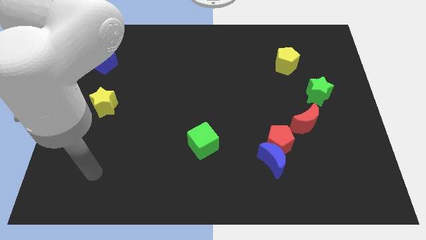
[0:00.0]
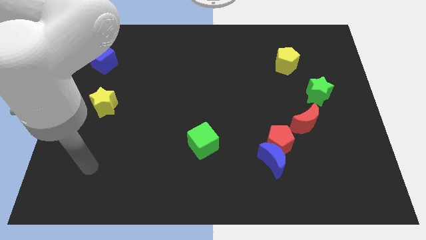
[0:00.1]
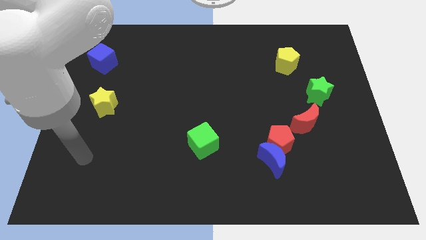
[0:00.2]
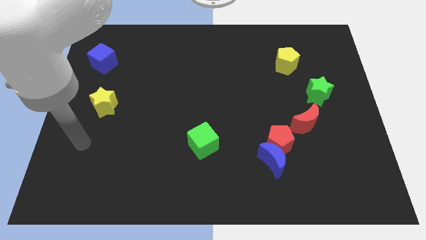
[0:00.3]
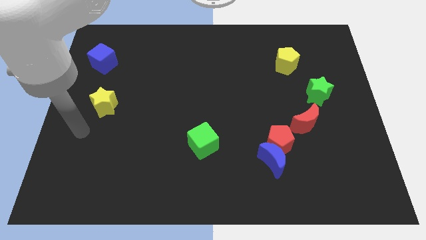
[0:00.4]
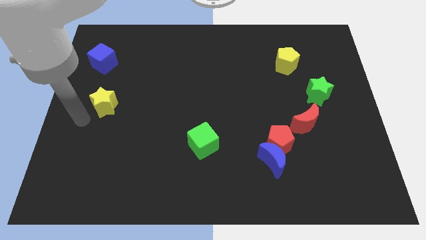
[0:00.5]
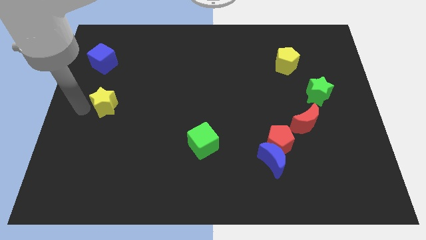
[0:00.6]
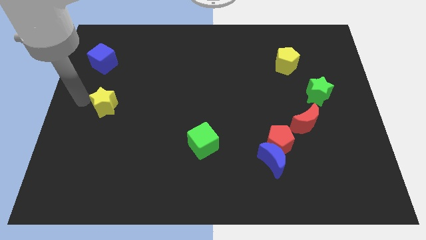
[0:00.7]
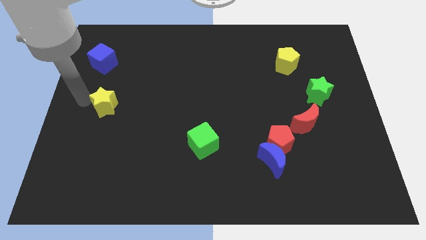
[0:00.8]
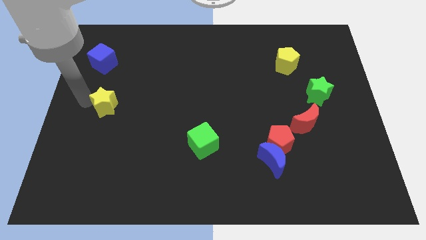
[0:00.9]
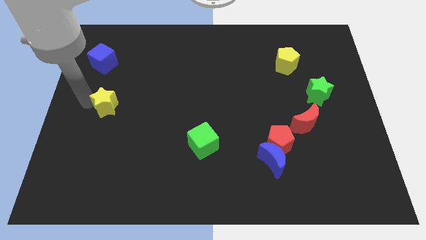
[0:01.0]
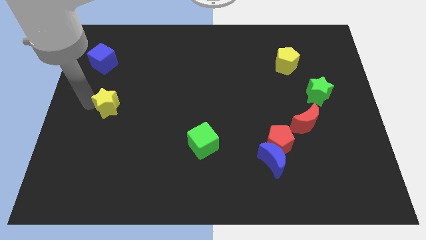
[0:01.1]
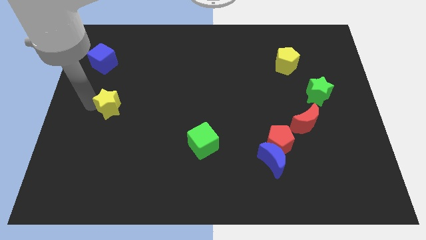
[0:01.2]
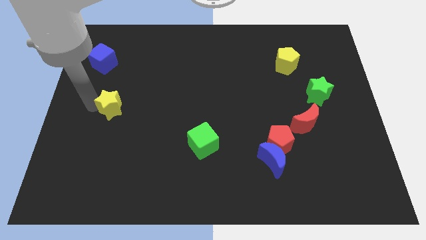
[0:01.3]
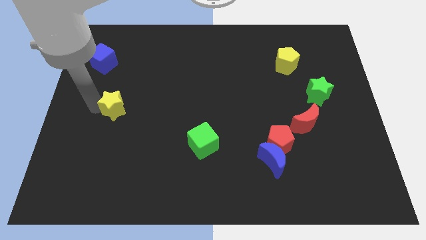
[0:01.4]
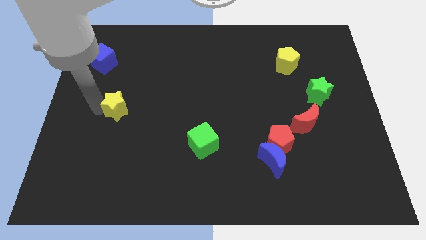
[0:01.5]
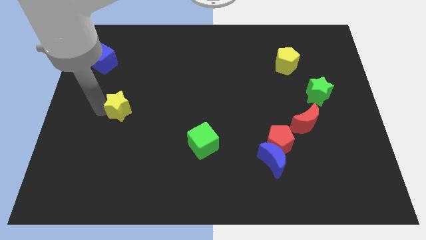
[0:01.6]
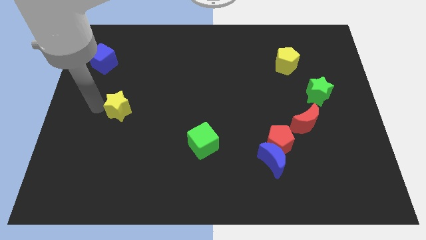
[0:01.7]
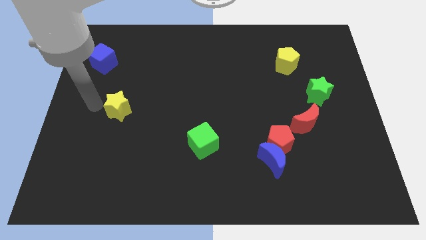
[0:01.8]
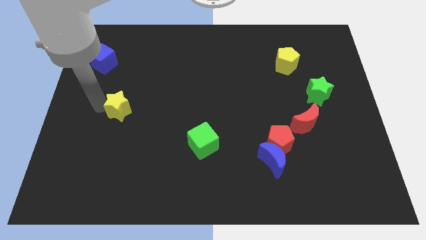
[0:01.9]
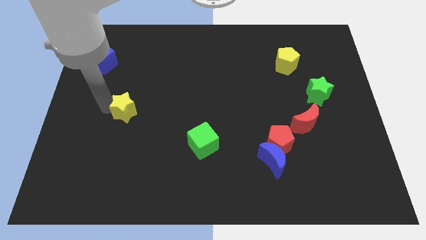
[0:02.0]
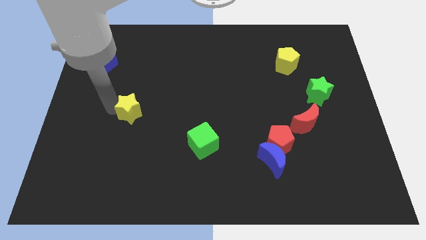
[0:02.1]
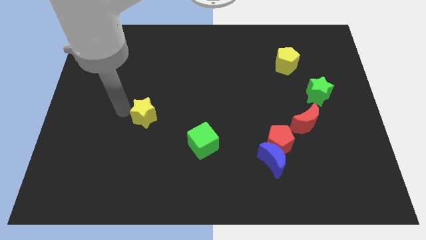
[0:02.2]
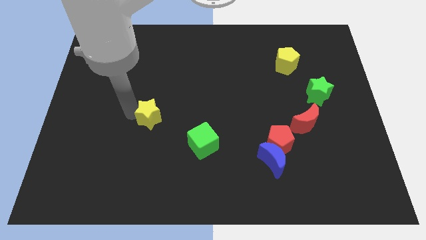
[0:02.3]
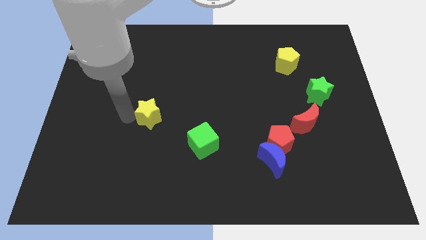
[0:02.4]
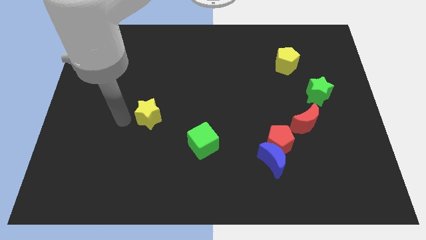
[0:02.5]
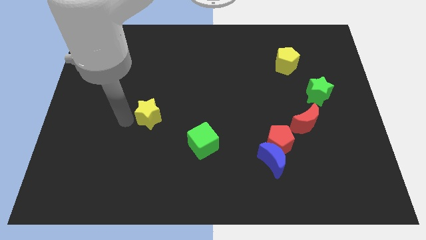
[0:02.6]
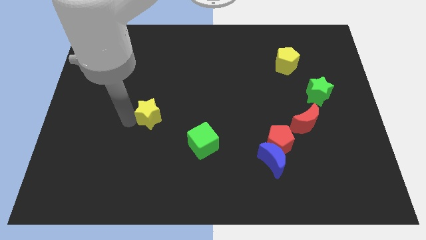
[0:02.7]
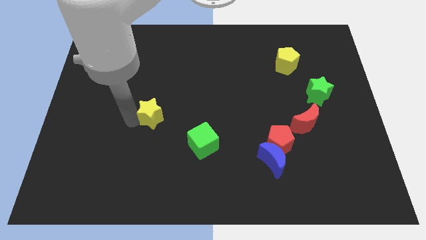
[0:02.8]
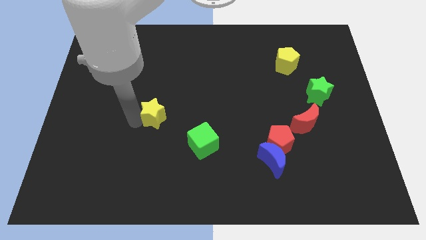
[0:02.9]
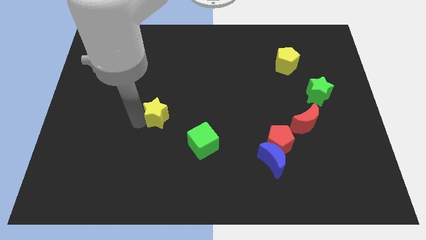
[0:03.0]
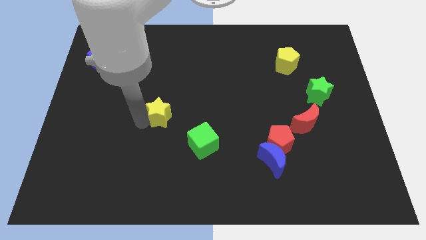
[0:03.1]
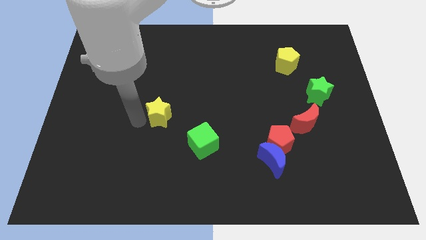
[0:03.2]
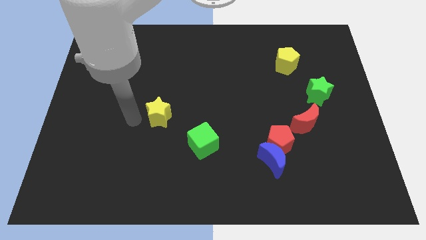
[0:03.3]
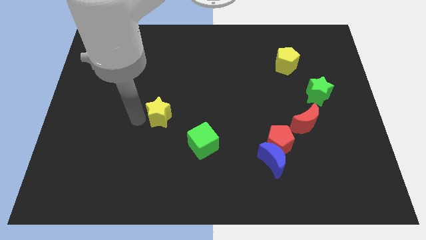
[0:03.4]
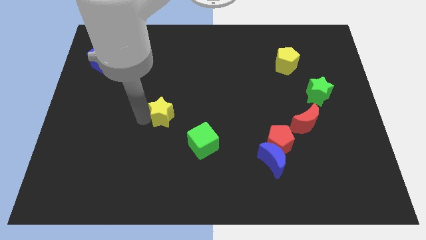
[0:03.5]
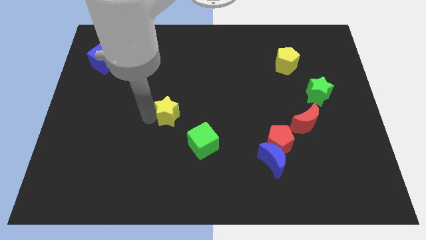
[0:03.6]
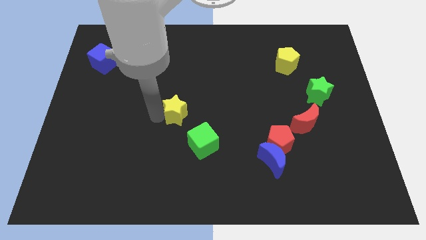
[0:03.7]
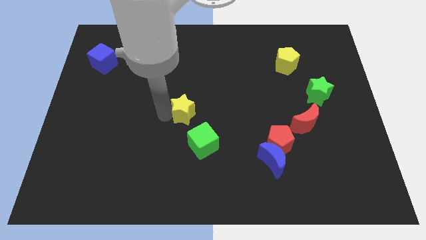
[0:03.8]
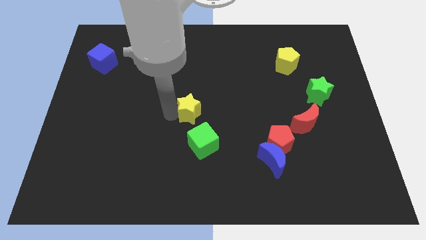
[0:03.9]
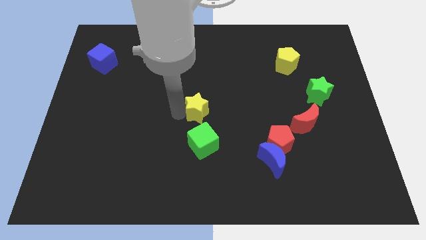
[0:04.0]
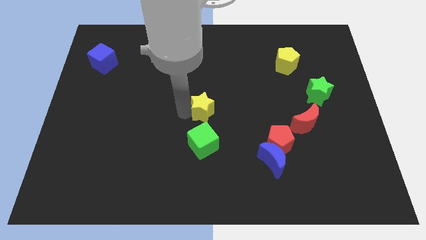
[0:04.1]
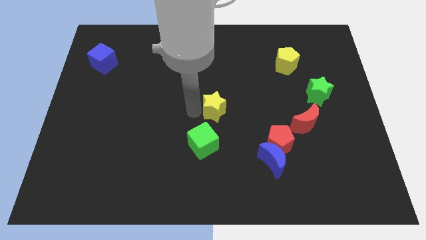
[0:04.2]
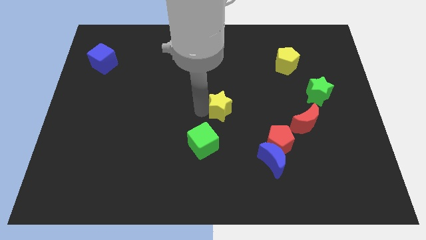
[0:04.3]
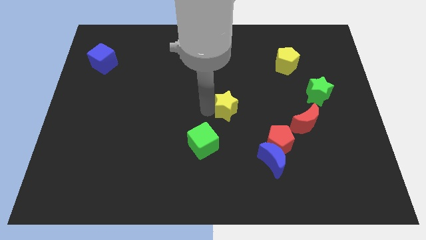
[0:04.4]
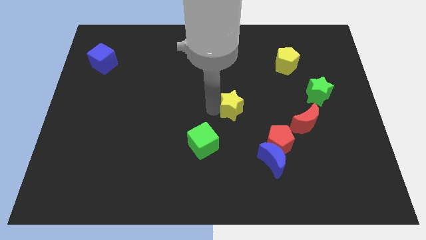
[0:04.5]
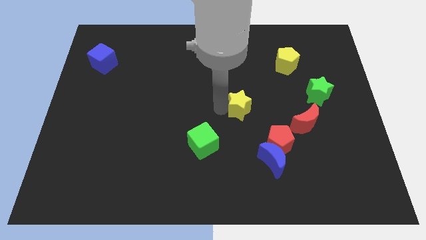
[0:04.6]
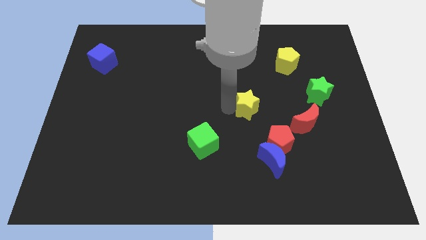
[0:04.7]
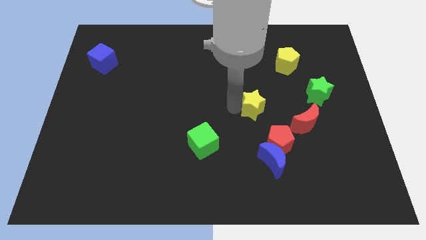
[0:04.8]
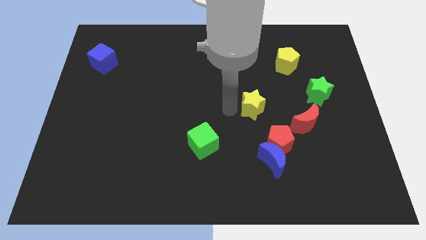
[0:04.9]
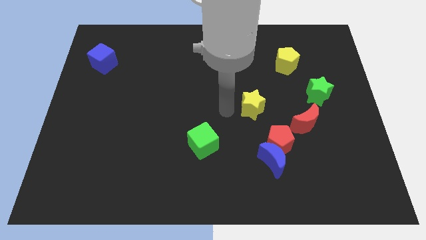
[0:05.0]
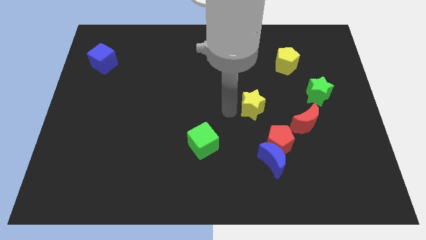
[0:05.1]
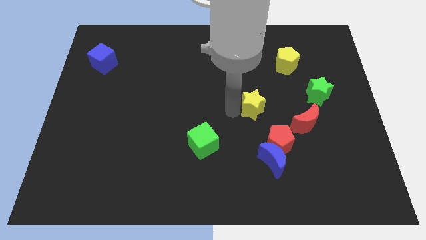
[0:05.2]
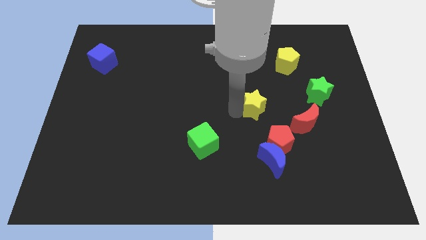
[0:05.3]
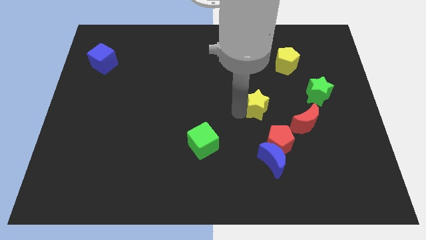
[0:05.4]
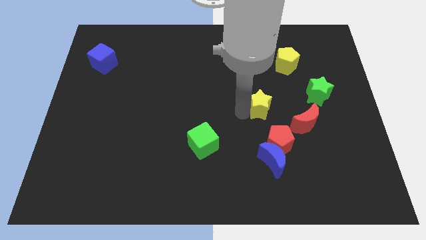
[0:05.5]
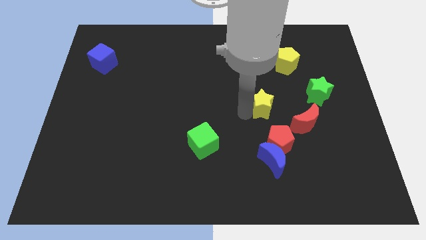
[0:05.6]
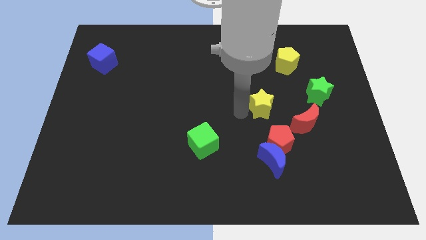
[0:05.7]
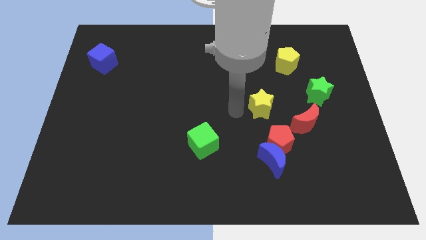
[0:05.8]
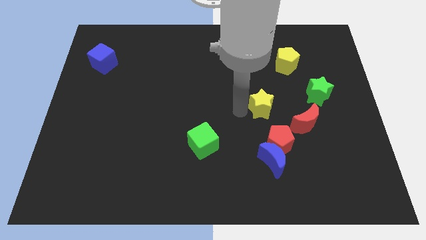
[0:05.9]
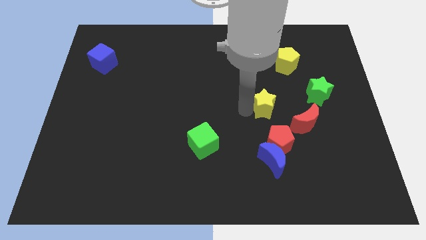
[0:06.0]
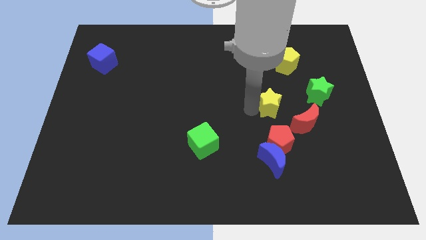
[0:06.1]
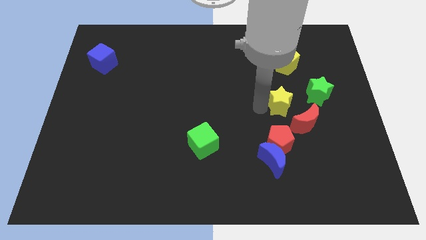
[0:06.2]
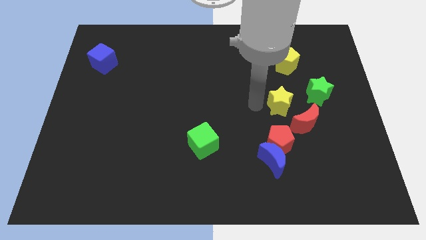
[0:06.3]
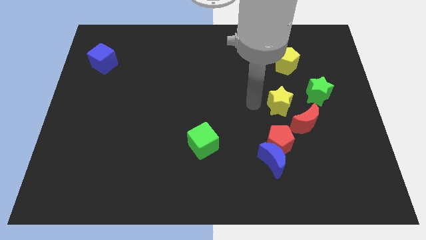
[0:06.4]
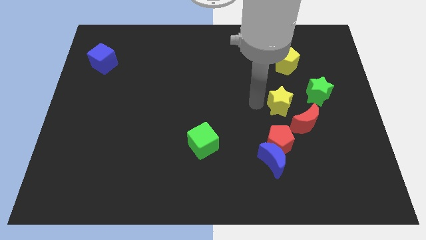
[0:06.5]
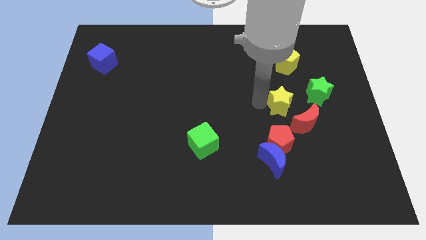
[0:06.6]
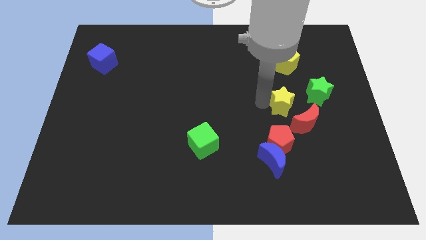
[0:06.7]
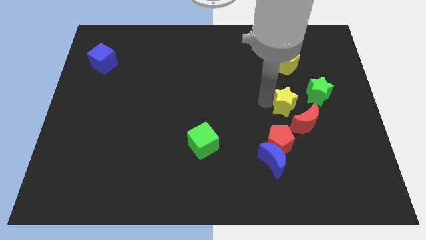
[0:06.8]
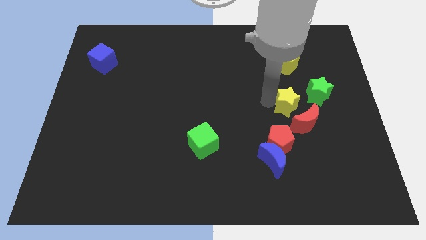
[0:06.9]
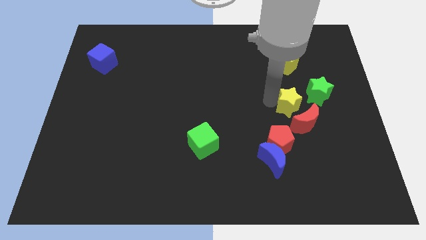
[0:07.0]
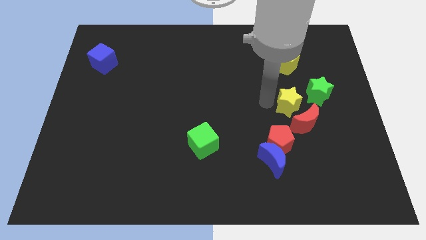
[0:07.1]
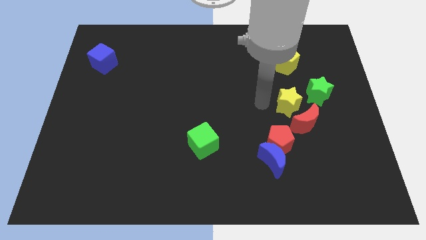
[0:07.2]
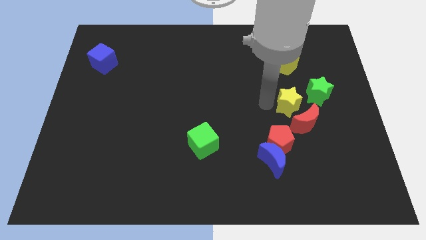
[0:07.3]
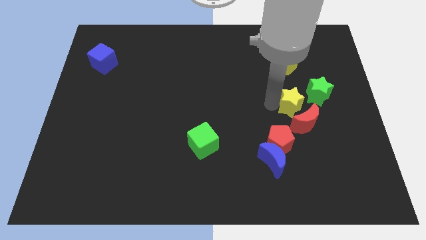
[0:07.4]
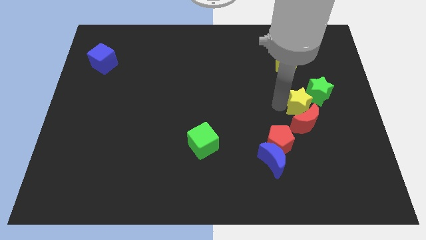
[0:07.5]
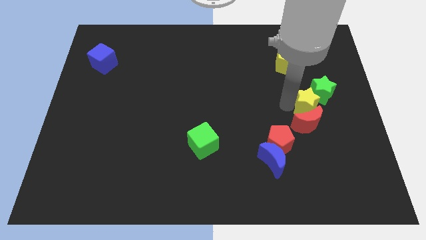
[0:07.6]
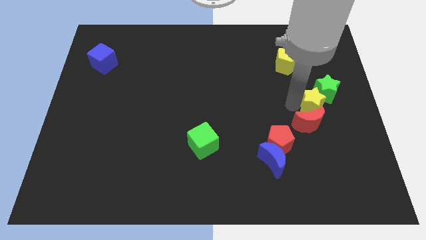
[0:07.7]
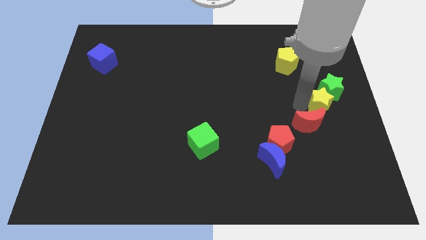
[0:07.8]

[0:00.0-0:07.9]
slide the yellow star to the center right
